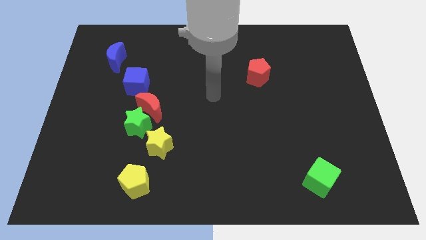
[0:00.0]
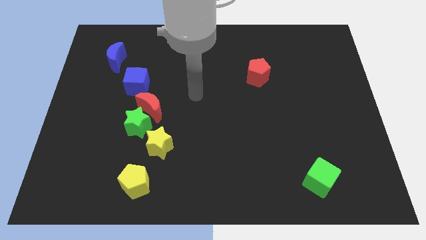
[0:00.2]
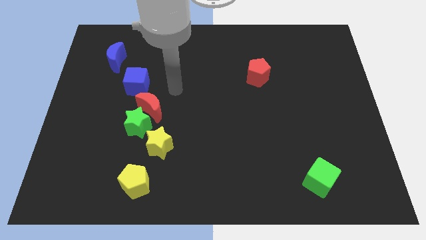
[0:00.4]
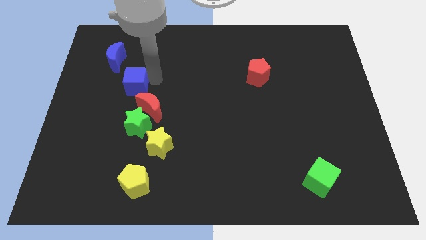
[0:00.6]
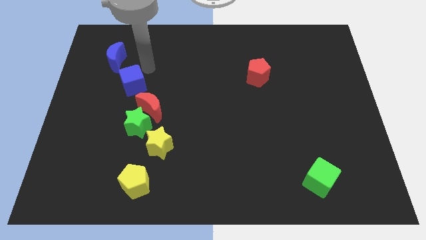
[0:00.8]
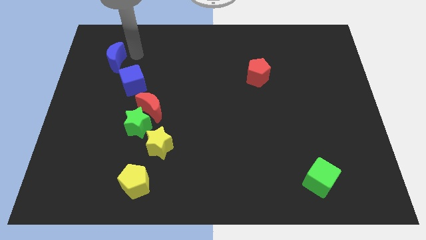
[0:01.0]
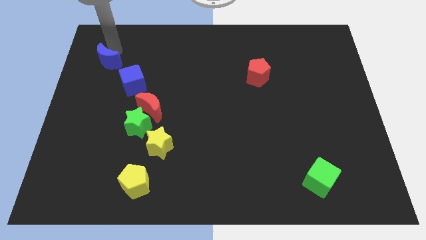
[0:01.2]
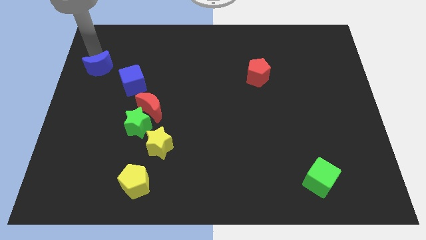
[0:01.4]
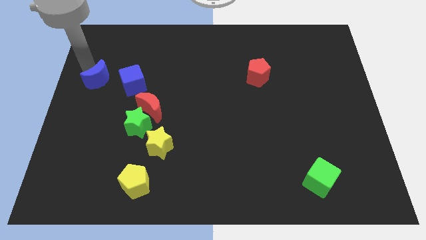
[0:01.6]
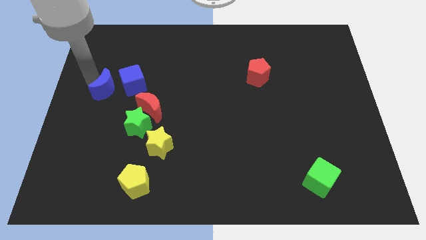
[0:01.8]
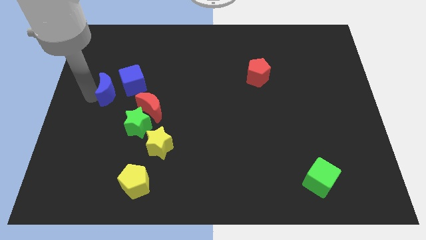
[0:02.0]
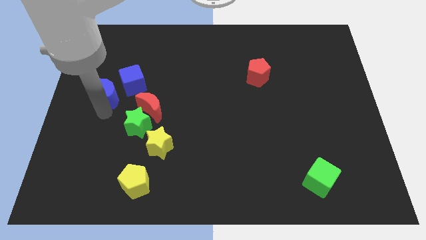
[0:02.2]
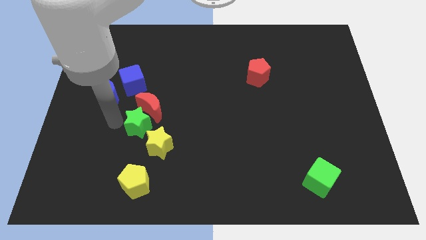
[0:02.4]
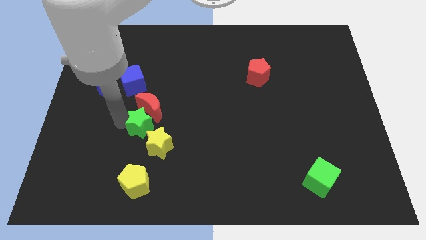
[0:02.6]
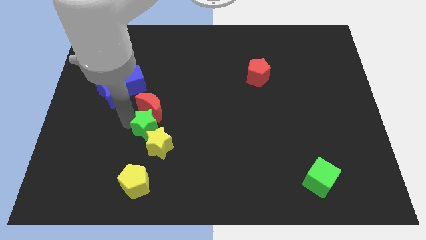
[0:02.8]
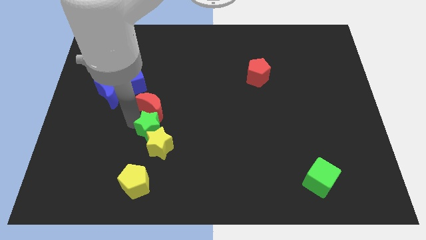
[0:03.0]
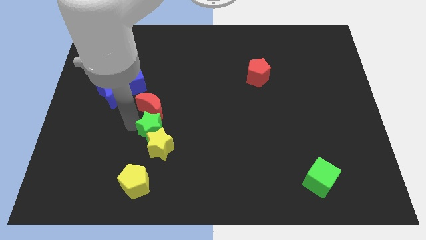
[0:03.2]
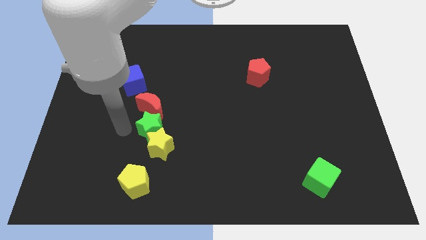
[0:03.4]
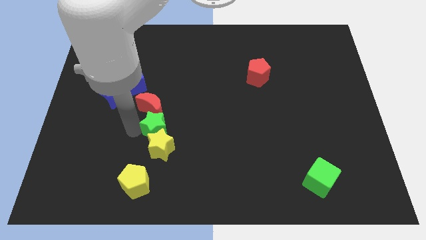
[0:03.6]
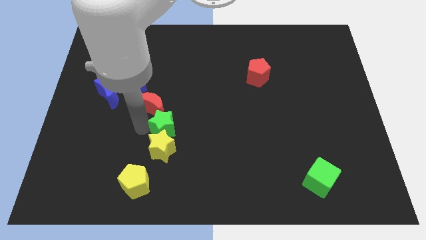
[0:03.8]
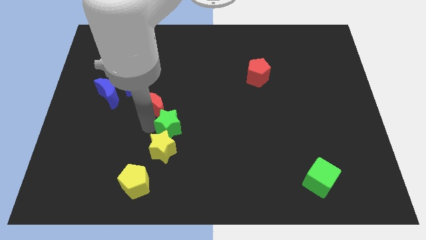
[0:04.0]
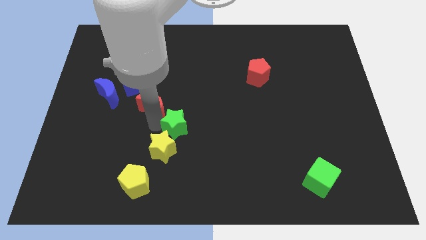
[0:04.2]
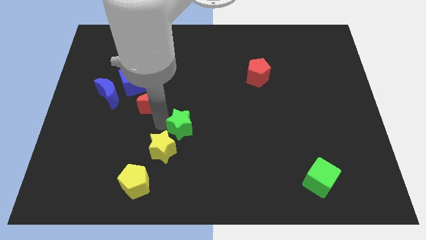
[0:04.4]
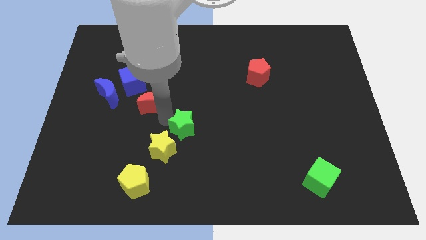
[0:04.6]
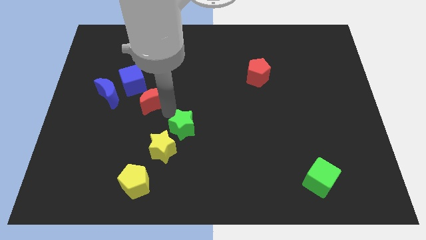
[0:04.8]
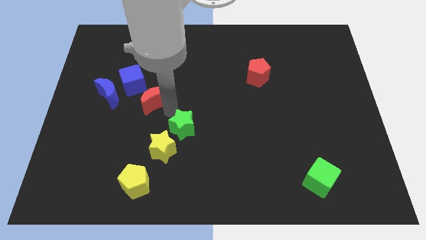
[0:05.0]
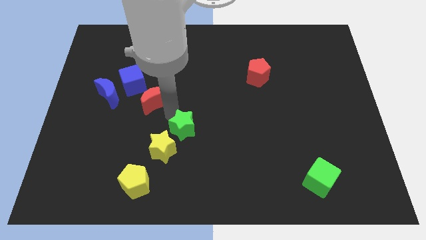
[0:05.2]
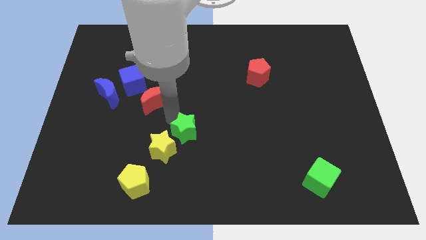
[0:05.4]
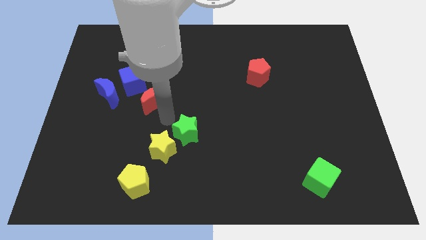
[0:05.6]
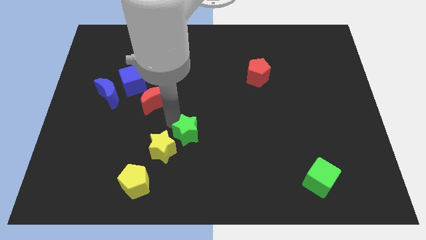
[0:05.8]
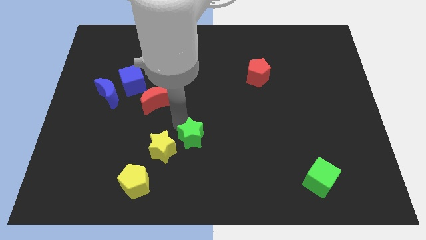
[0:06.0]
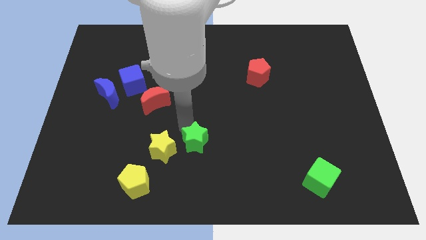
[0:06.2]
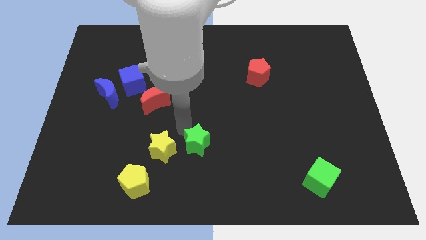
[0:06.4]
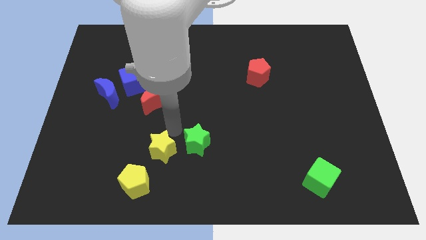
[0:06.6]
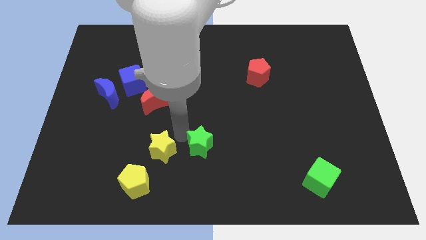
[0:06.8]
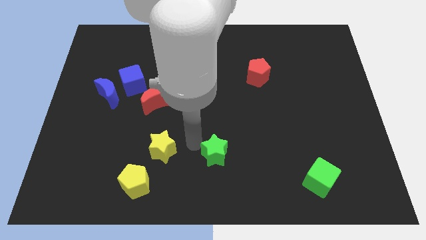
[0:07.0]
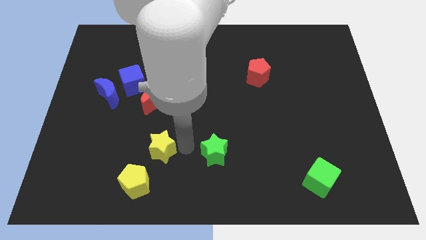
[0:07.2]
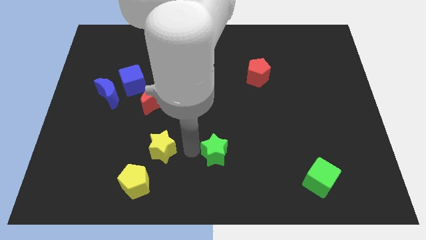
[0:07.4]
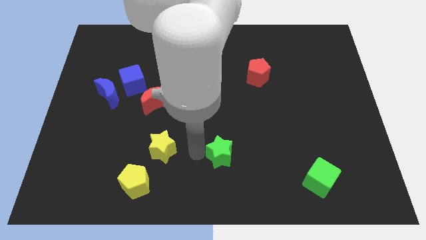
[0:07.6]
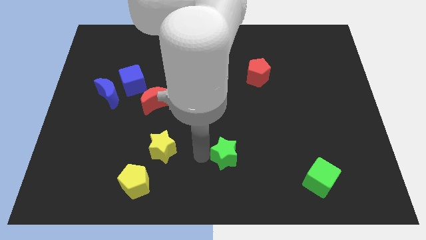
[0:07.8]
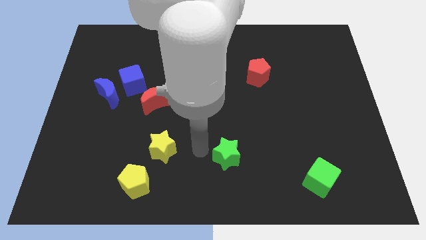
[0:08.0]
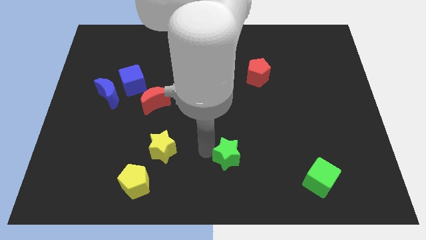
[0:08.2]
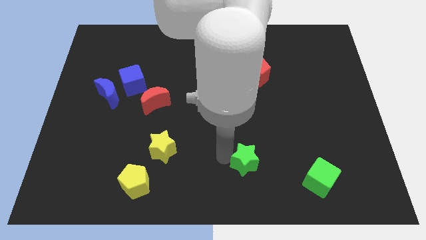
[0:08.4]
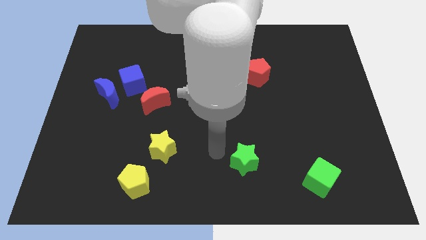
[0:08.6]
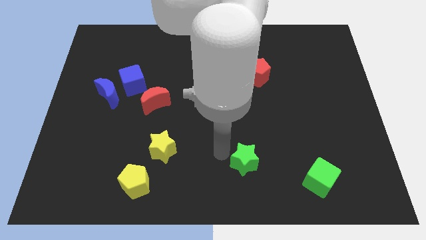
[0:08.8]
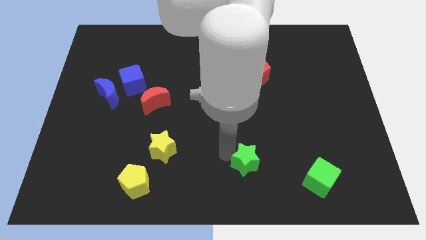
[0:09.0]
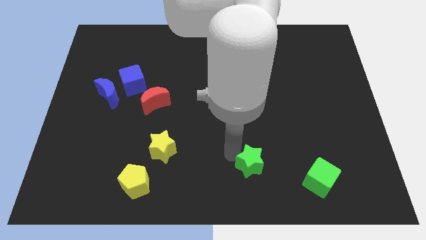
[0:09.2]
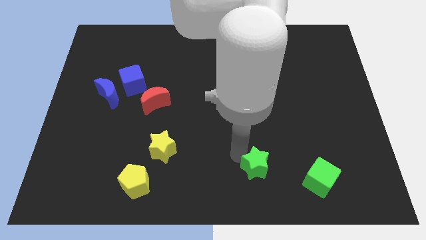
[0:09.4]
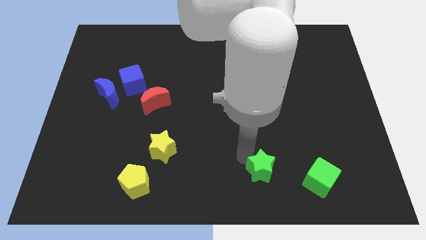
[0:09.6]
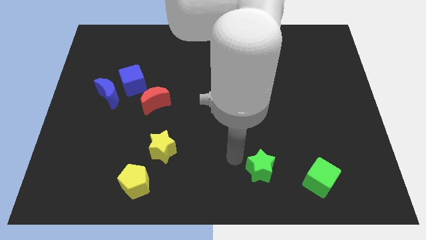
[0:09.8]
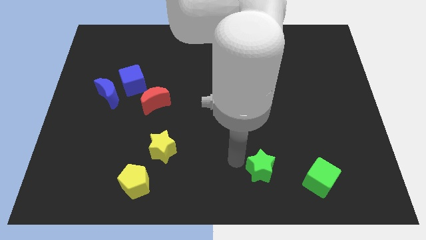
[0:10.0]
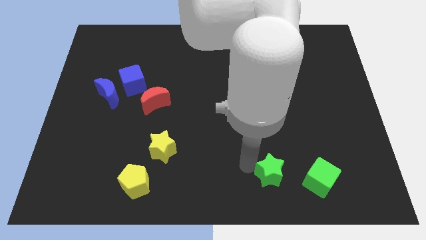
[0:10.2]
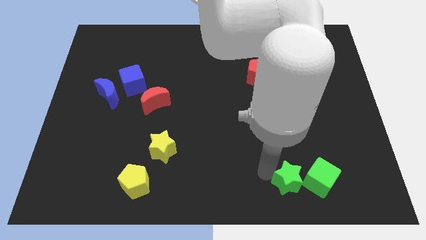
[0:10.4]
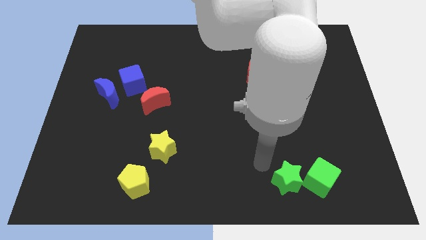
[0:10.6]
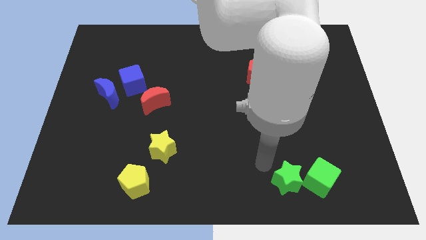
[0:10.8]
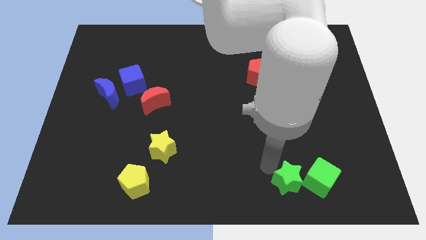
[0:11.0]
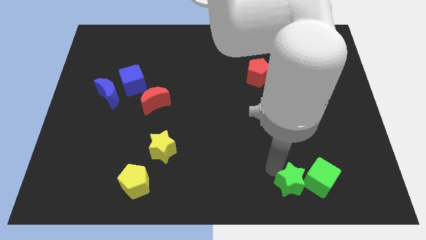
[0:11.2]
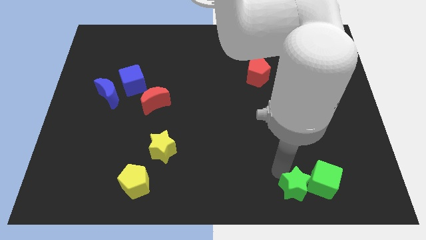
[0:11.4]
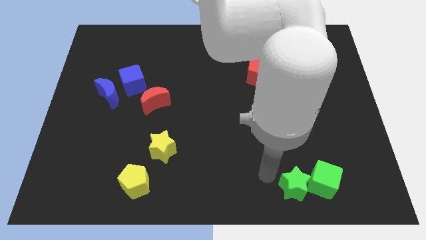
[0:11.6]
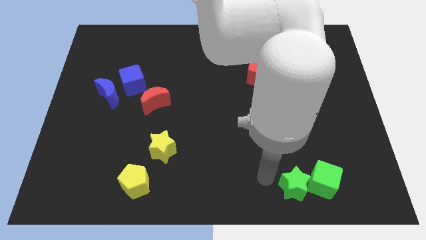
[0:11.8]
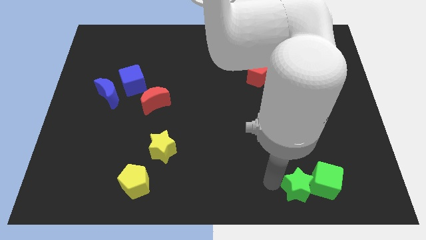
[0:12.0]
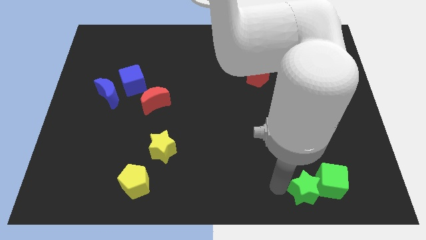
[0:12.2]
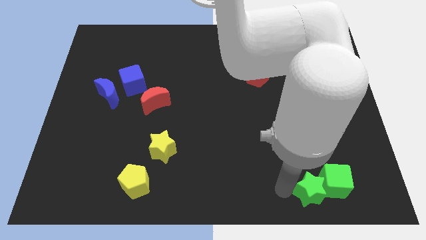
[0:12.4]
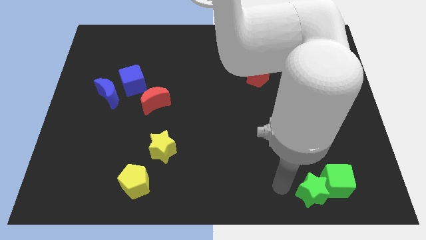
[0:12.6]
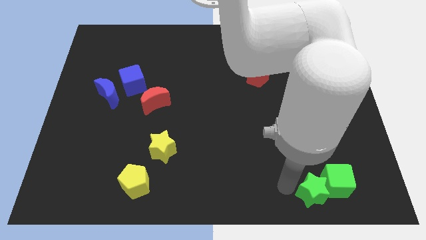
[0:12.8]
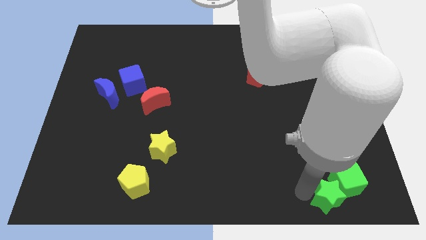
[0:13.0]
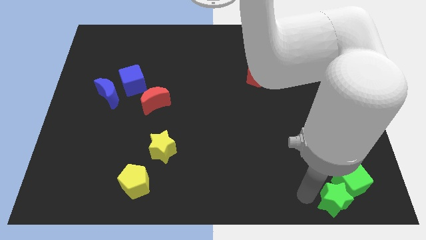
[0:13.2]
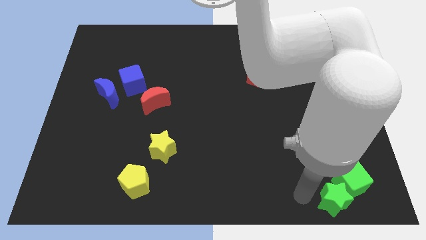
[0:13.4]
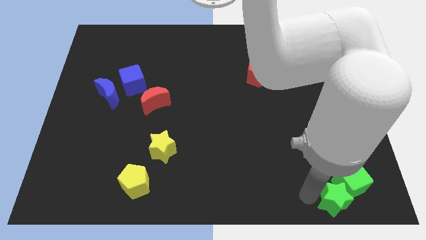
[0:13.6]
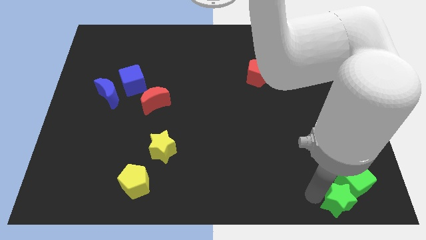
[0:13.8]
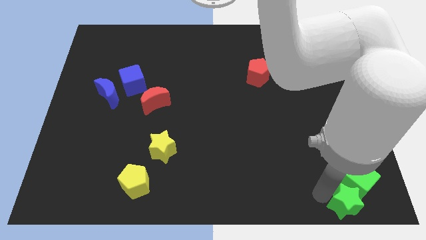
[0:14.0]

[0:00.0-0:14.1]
move the green star to the bottom right
